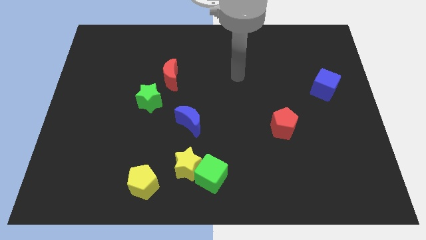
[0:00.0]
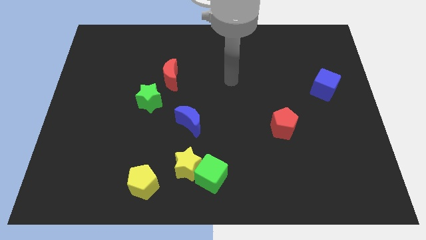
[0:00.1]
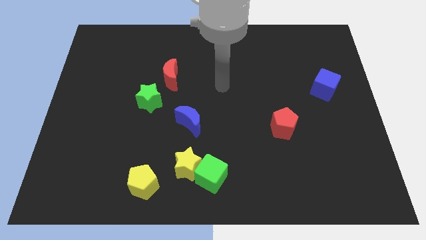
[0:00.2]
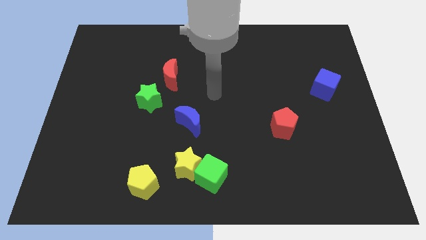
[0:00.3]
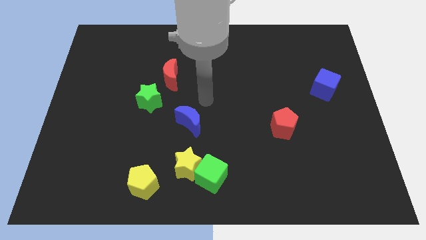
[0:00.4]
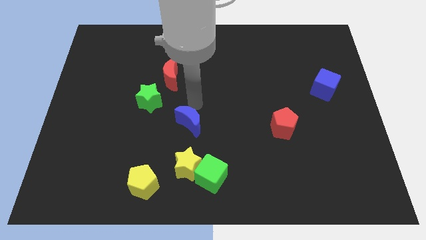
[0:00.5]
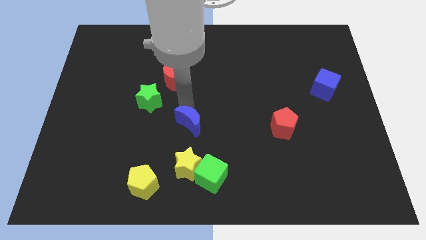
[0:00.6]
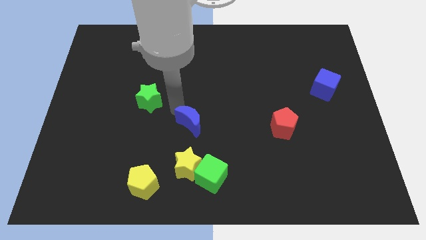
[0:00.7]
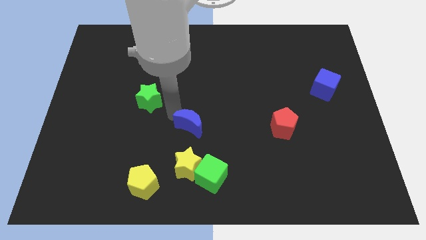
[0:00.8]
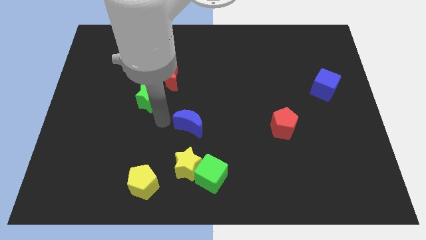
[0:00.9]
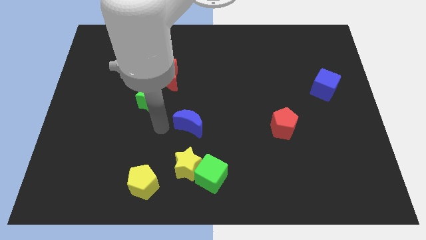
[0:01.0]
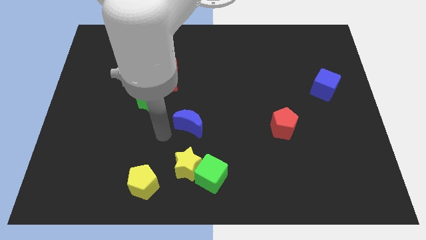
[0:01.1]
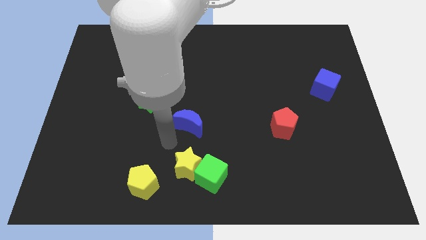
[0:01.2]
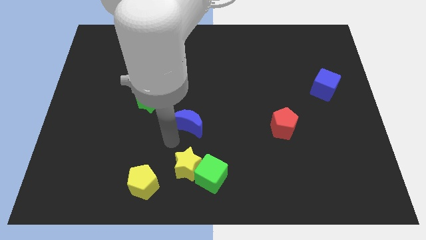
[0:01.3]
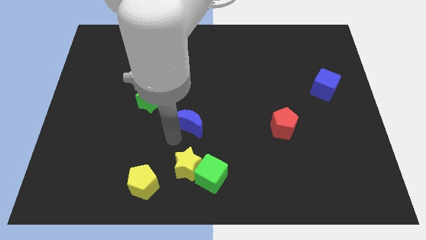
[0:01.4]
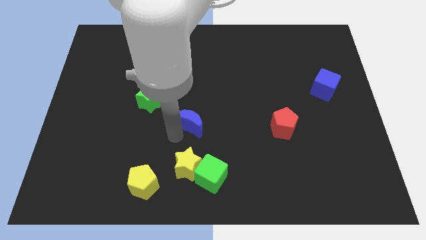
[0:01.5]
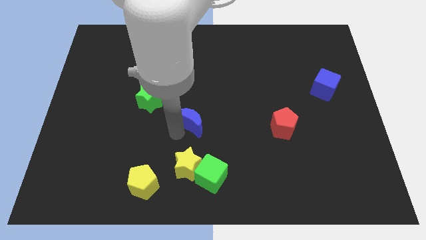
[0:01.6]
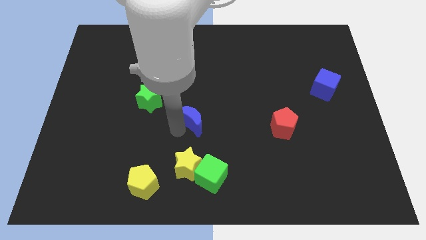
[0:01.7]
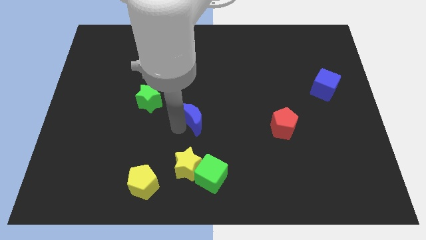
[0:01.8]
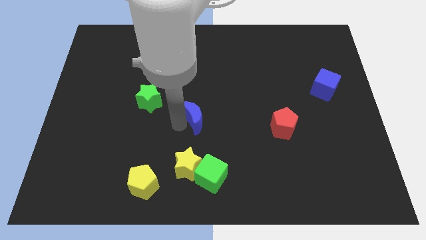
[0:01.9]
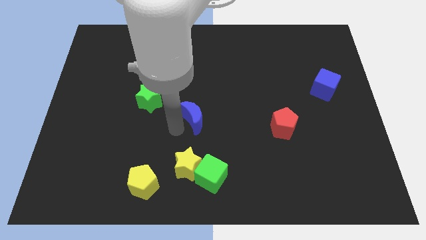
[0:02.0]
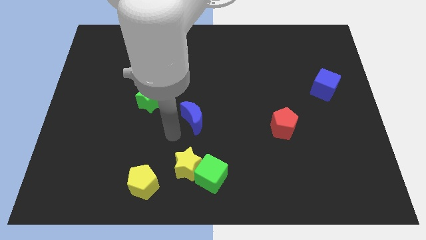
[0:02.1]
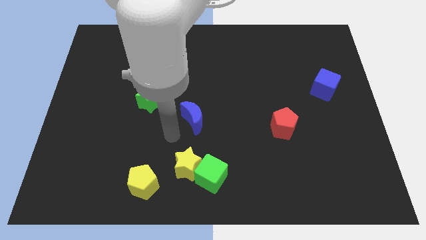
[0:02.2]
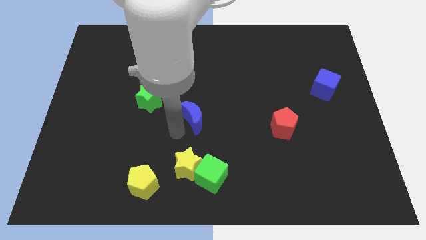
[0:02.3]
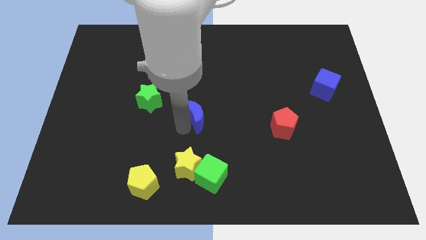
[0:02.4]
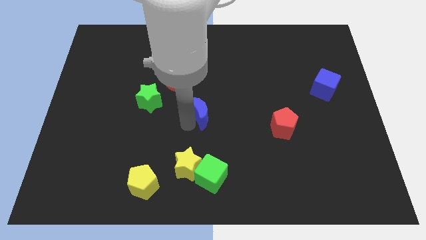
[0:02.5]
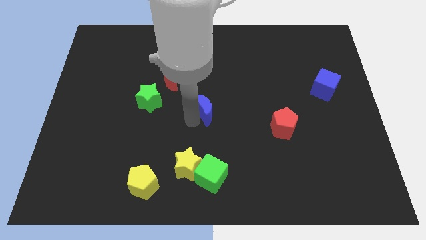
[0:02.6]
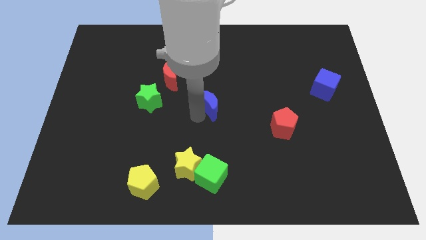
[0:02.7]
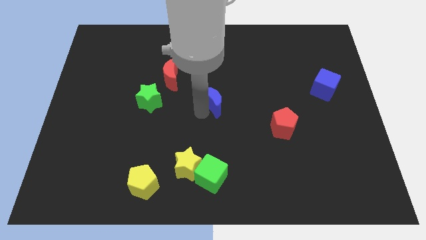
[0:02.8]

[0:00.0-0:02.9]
slide the blue moon a little up and to the right diagonally

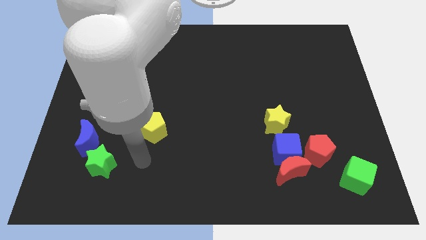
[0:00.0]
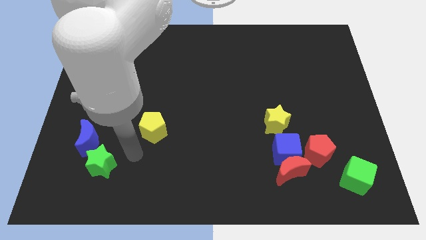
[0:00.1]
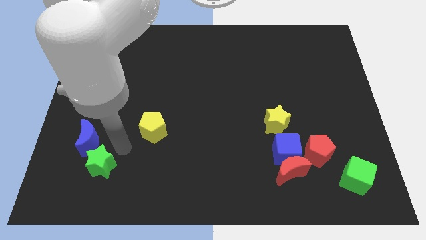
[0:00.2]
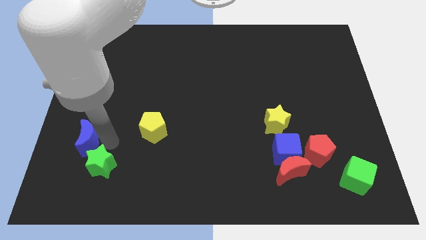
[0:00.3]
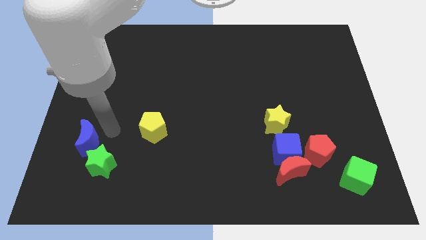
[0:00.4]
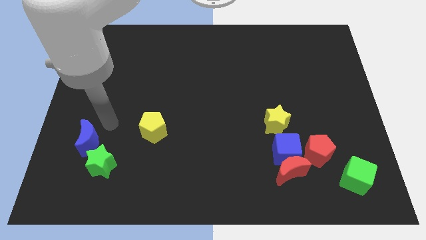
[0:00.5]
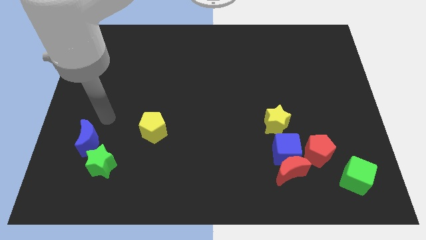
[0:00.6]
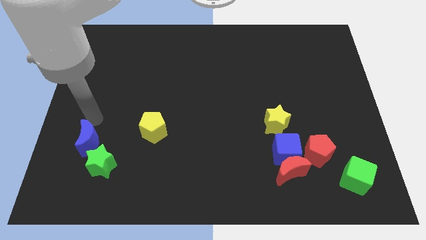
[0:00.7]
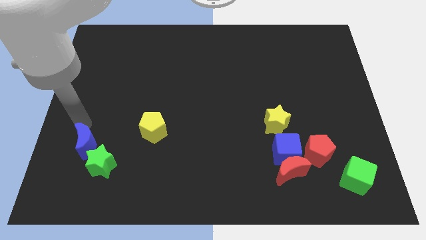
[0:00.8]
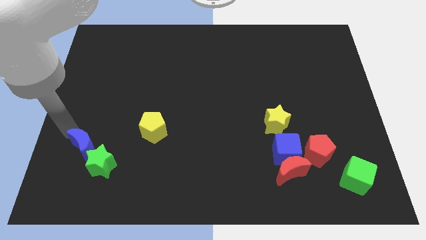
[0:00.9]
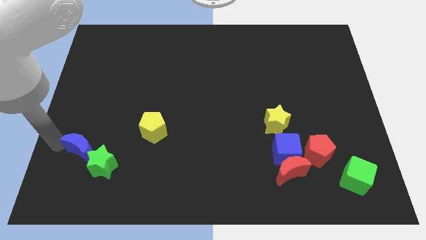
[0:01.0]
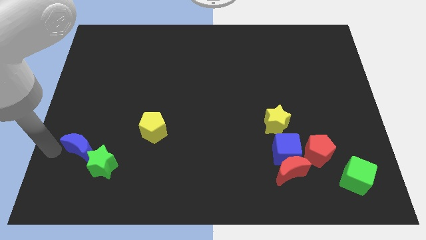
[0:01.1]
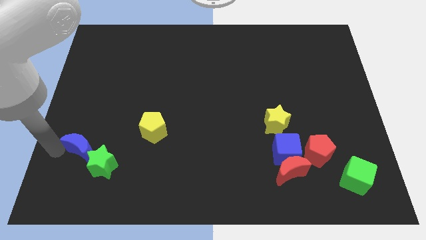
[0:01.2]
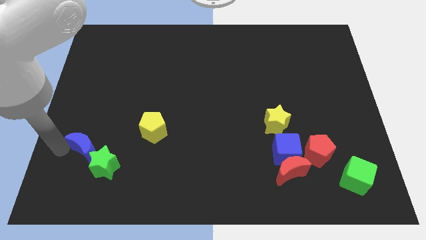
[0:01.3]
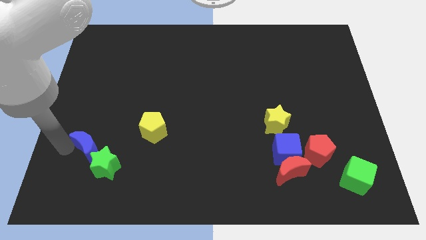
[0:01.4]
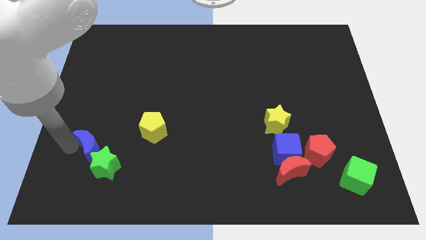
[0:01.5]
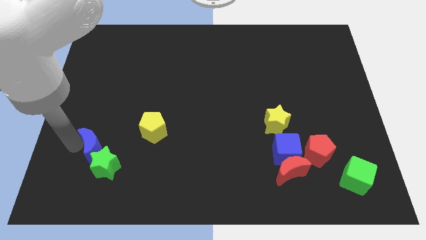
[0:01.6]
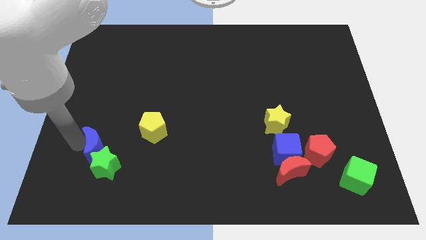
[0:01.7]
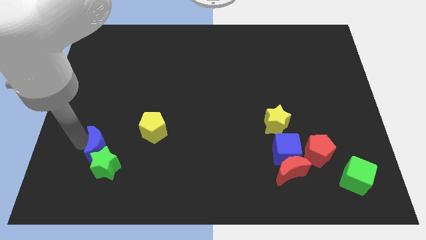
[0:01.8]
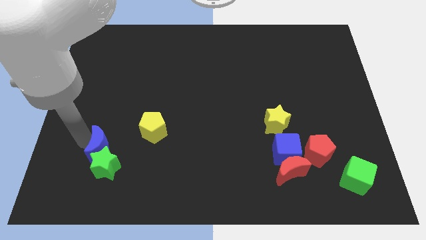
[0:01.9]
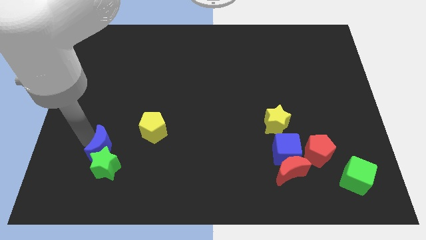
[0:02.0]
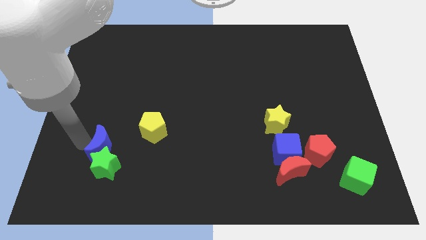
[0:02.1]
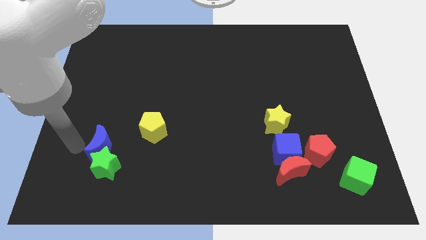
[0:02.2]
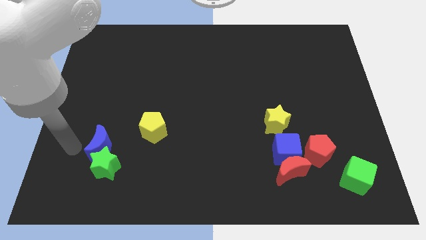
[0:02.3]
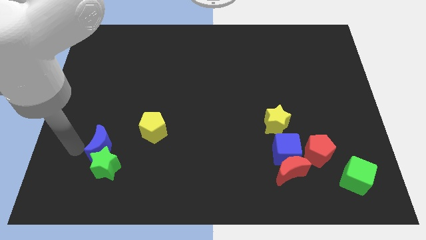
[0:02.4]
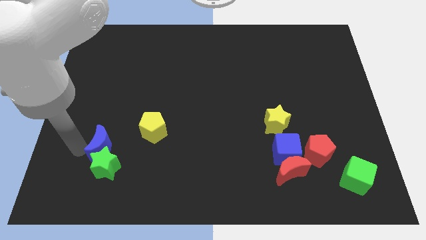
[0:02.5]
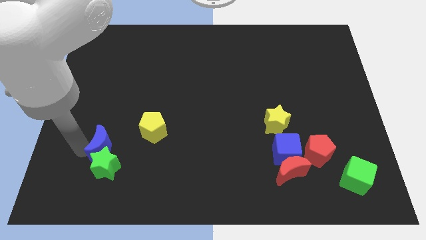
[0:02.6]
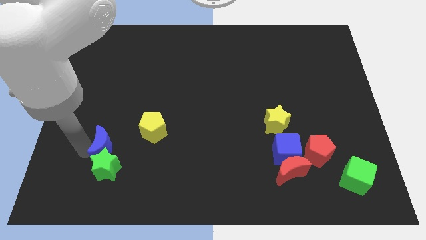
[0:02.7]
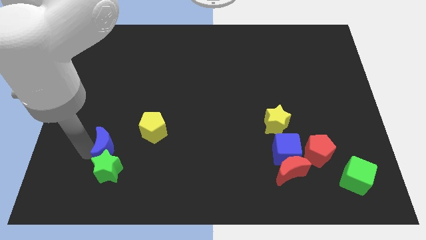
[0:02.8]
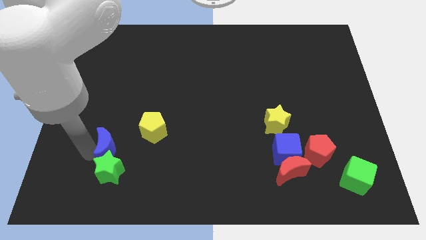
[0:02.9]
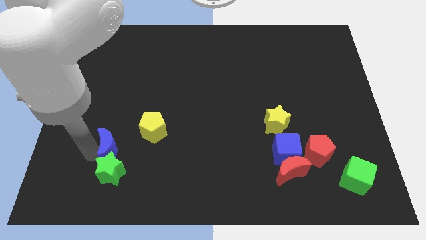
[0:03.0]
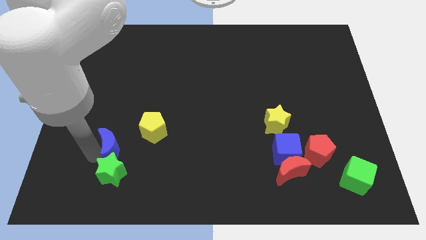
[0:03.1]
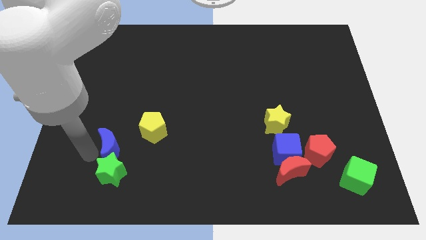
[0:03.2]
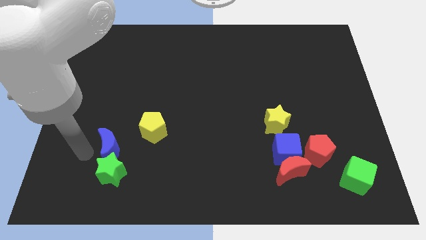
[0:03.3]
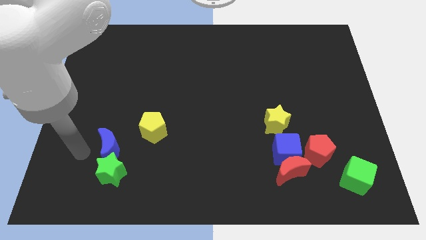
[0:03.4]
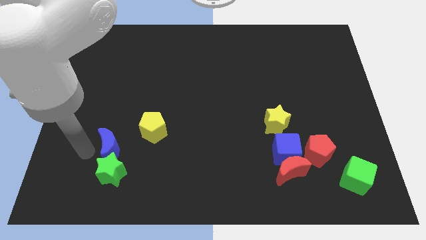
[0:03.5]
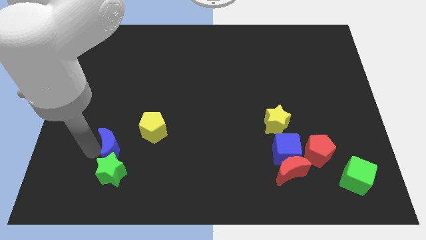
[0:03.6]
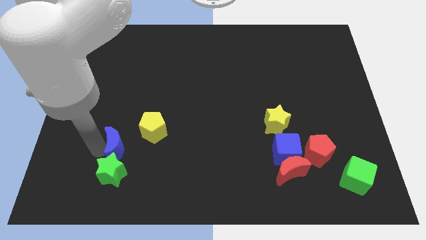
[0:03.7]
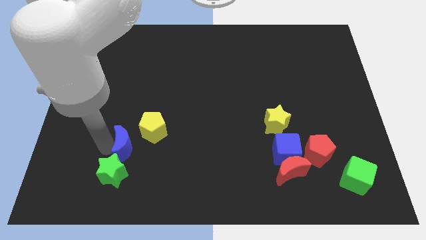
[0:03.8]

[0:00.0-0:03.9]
slightly move the blue moon to the right

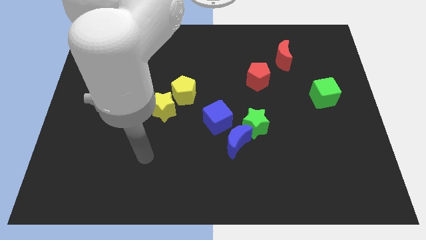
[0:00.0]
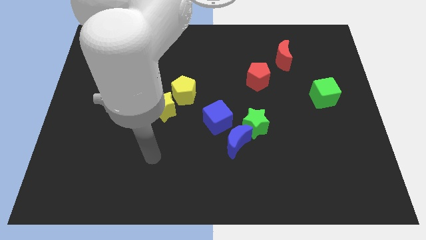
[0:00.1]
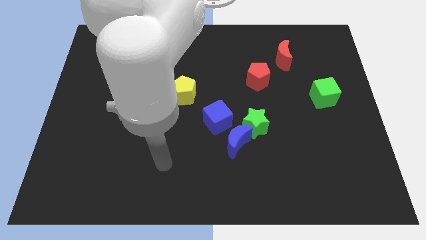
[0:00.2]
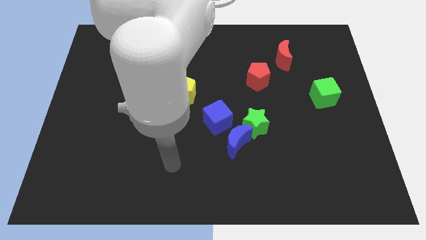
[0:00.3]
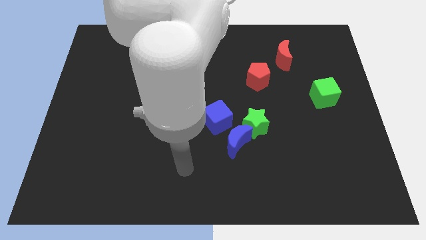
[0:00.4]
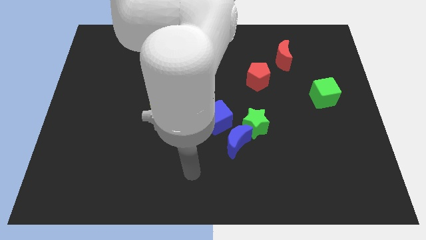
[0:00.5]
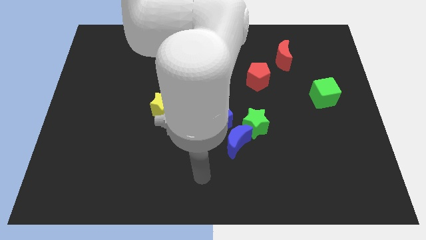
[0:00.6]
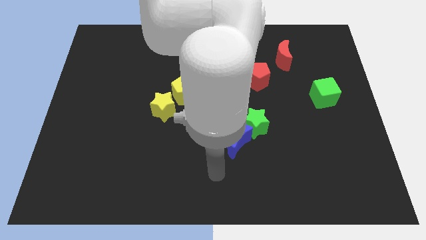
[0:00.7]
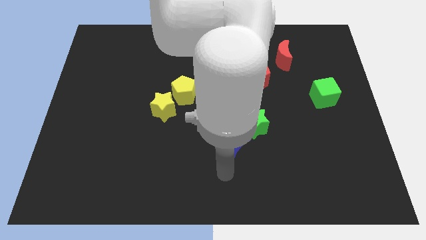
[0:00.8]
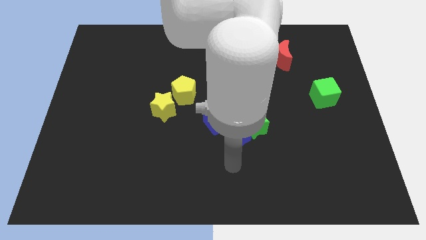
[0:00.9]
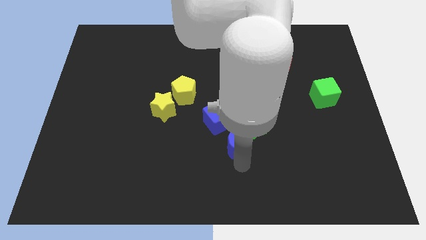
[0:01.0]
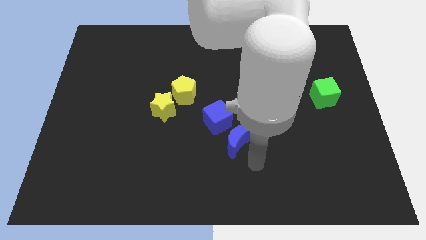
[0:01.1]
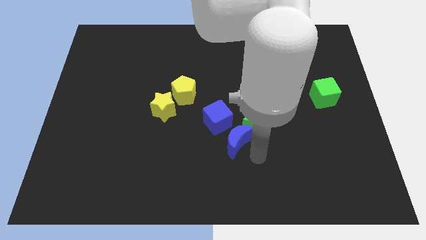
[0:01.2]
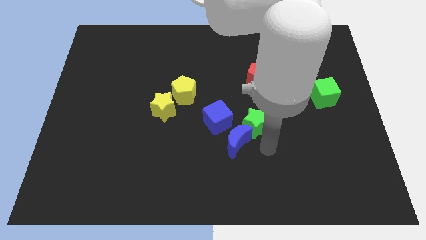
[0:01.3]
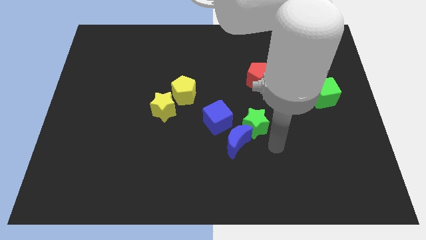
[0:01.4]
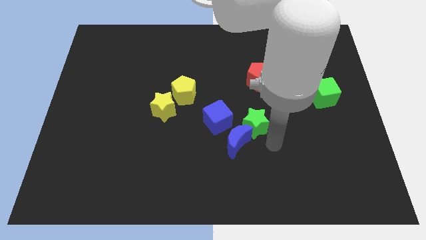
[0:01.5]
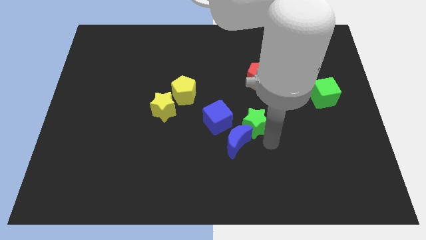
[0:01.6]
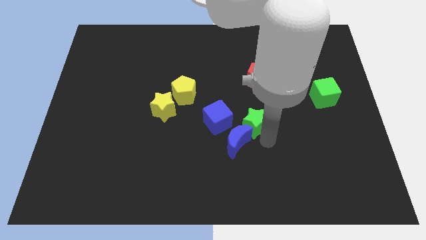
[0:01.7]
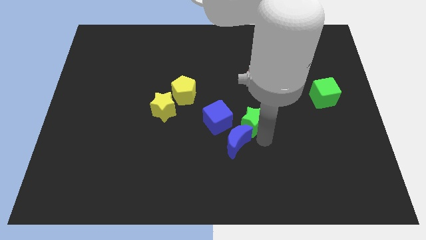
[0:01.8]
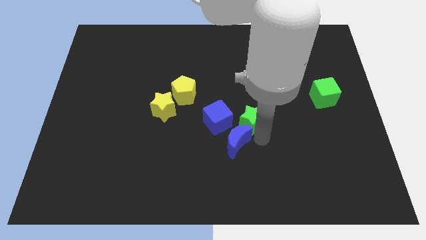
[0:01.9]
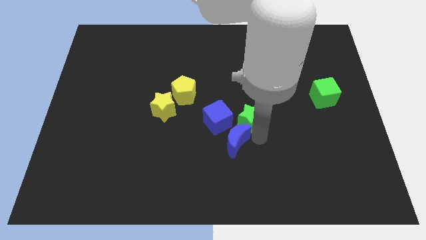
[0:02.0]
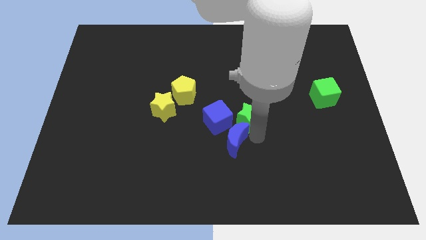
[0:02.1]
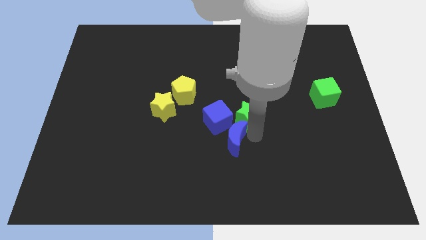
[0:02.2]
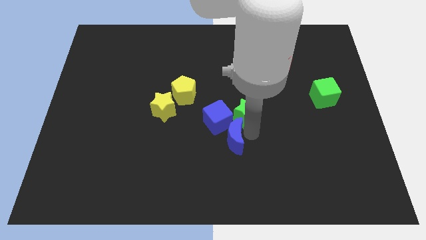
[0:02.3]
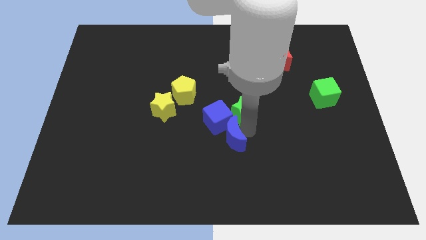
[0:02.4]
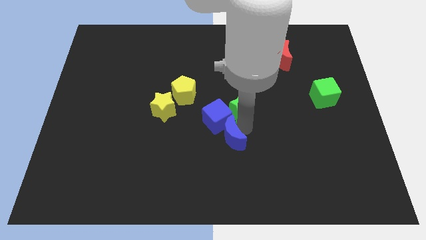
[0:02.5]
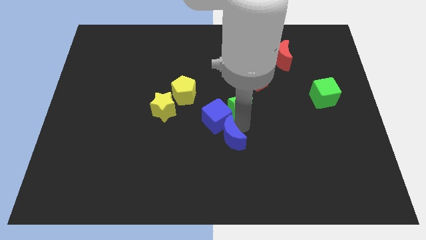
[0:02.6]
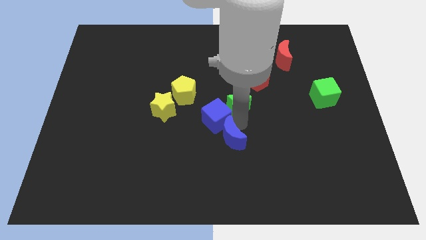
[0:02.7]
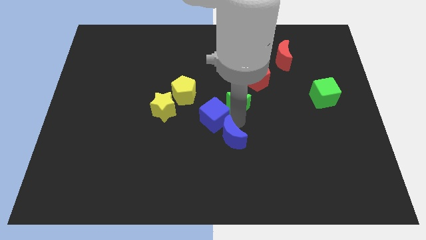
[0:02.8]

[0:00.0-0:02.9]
push the green star up and then left somewhat
